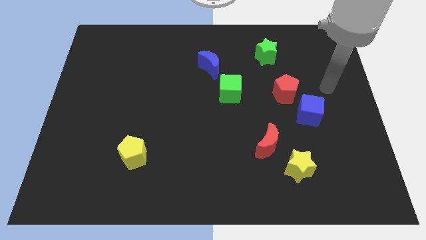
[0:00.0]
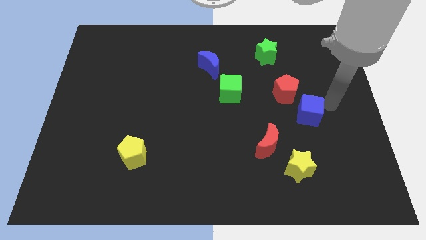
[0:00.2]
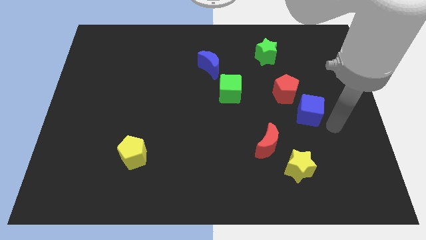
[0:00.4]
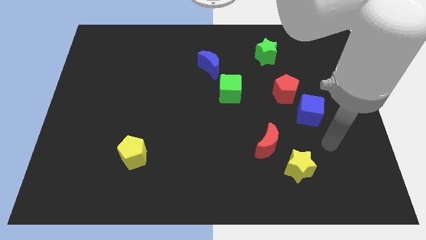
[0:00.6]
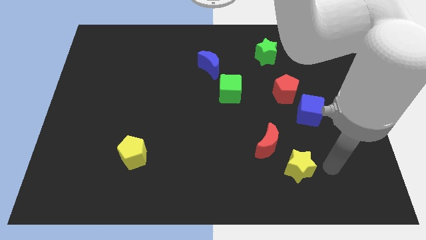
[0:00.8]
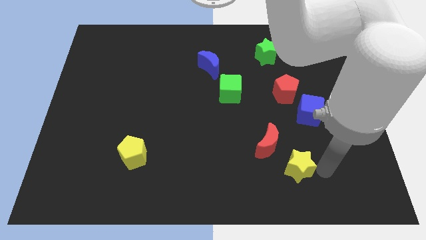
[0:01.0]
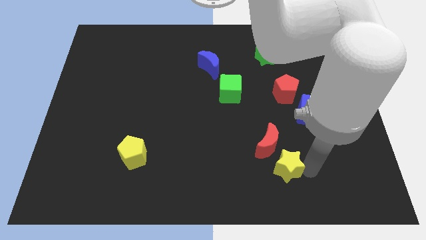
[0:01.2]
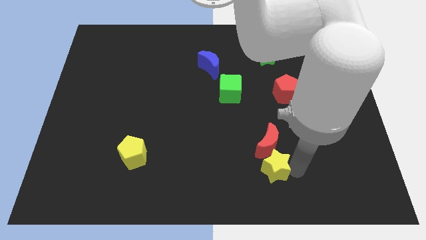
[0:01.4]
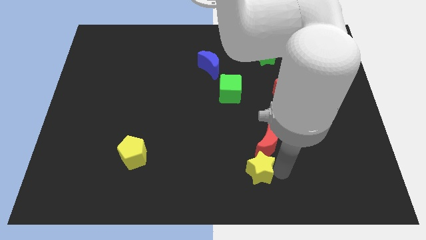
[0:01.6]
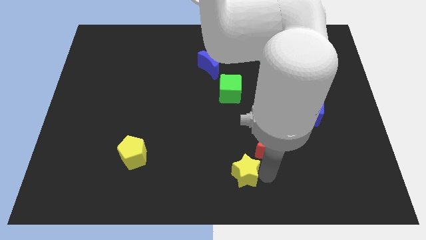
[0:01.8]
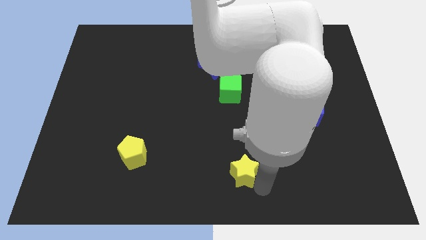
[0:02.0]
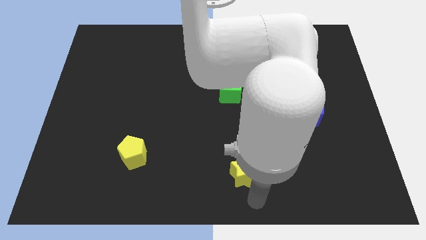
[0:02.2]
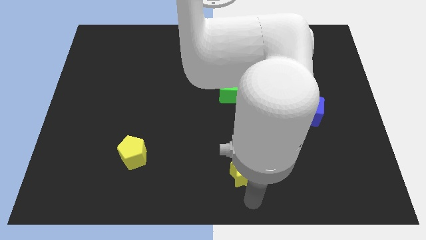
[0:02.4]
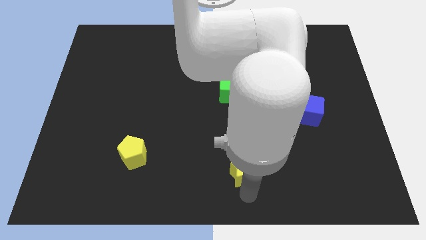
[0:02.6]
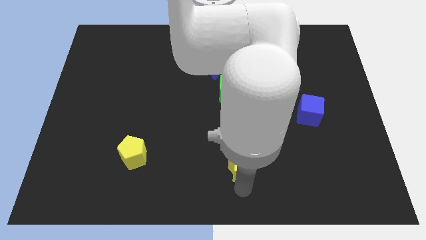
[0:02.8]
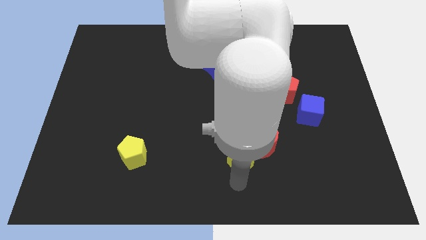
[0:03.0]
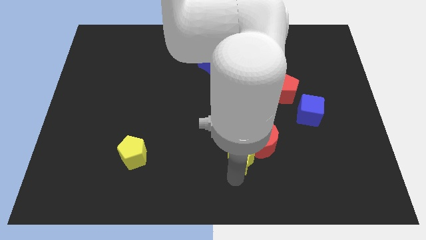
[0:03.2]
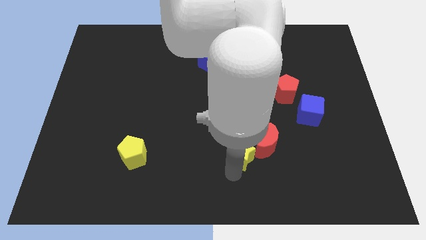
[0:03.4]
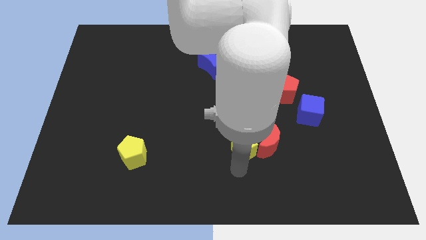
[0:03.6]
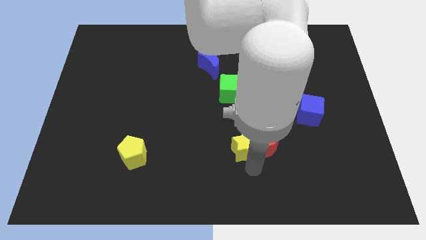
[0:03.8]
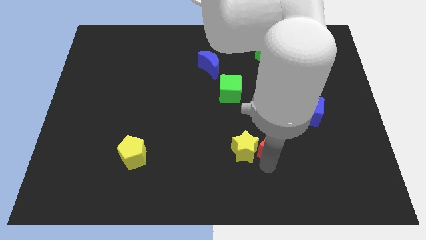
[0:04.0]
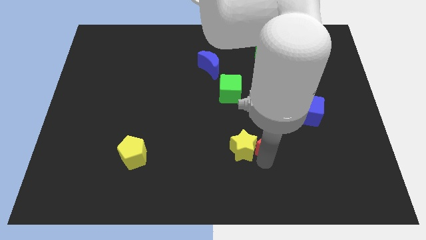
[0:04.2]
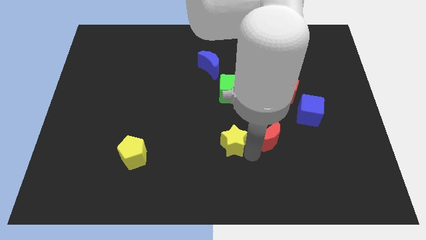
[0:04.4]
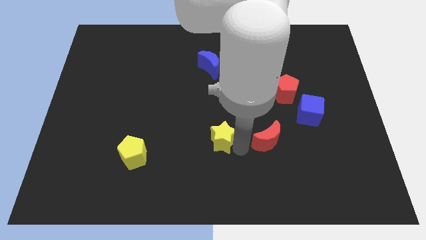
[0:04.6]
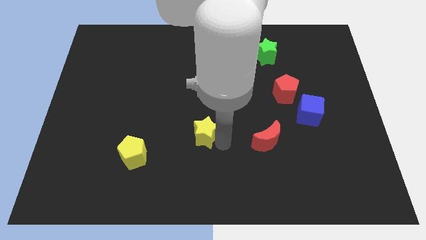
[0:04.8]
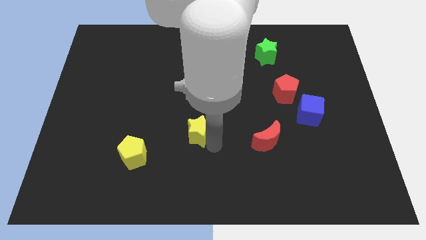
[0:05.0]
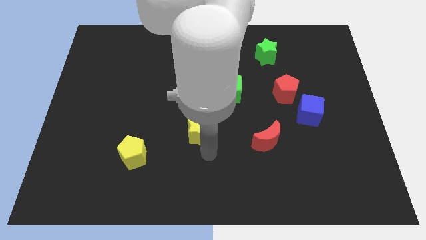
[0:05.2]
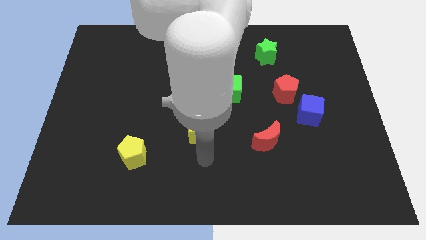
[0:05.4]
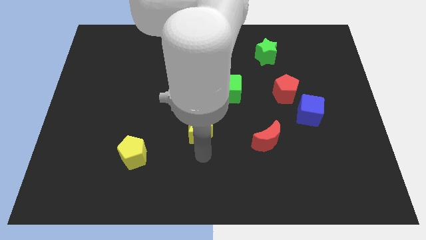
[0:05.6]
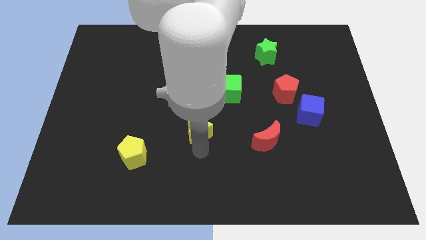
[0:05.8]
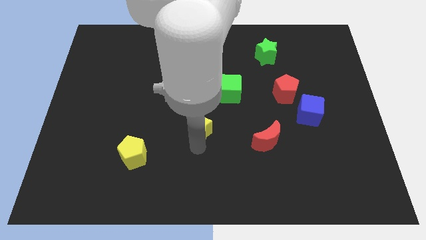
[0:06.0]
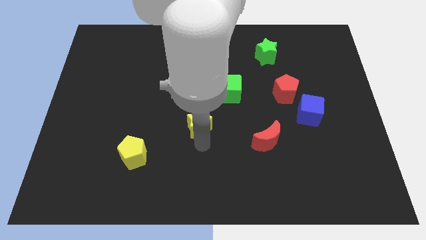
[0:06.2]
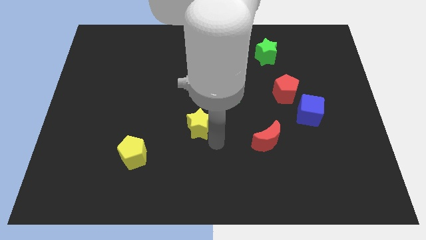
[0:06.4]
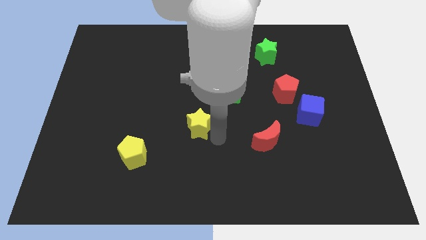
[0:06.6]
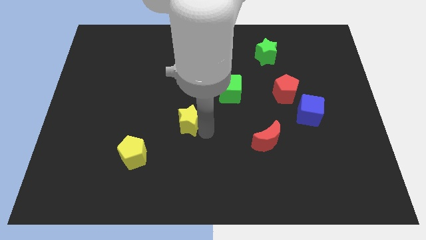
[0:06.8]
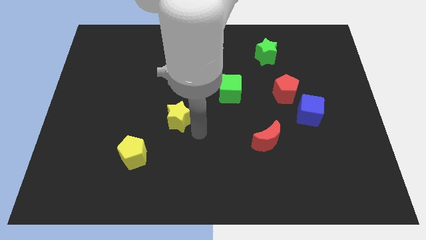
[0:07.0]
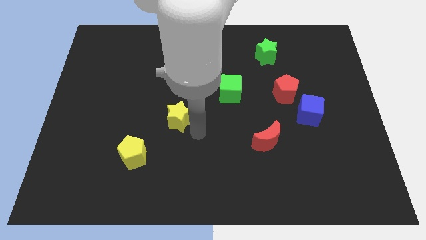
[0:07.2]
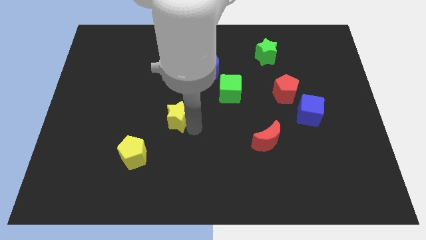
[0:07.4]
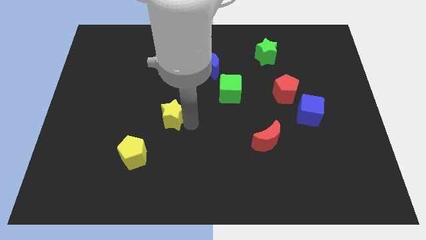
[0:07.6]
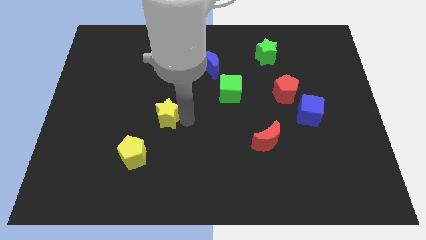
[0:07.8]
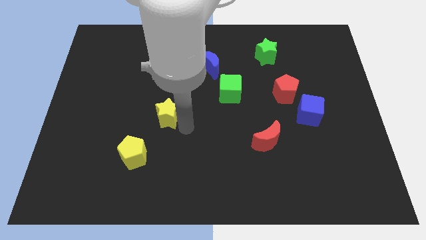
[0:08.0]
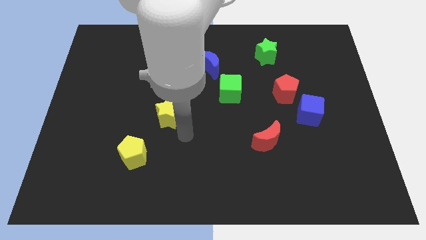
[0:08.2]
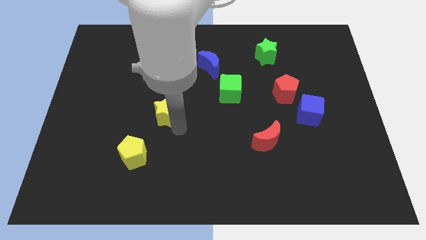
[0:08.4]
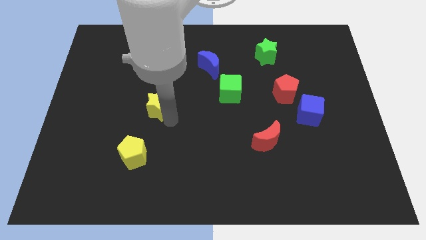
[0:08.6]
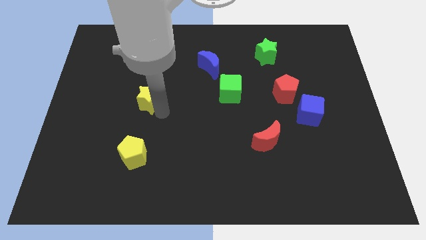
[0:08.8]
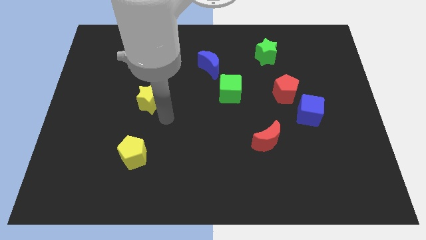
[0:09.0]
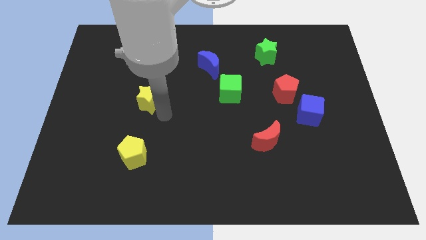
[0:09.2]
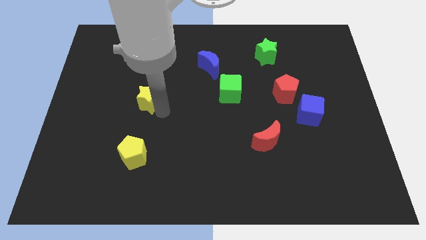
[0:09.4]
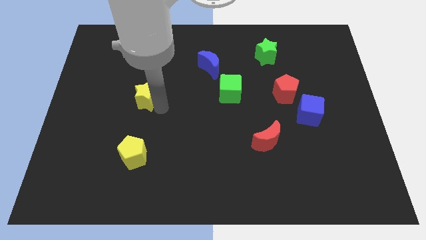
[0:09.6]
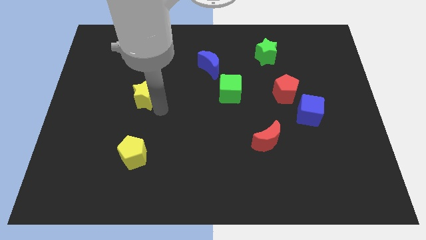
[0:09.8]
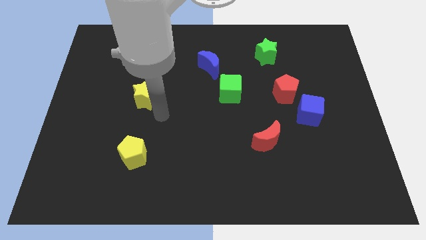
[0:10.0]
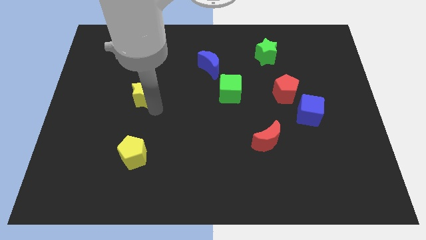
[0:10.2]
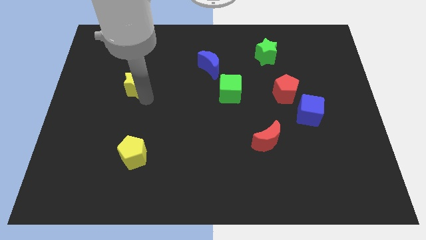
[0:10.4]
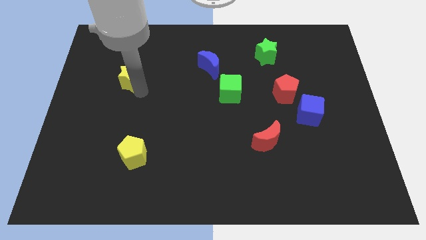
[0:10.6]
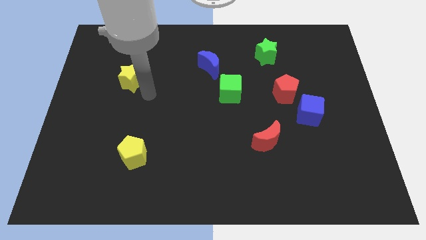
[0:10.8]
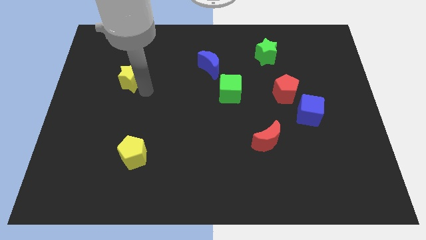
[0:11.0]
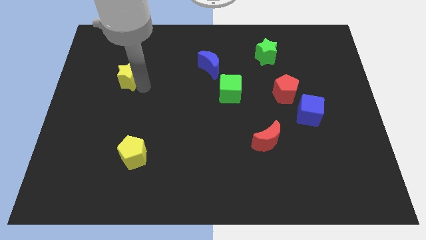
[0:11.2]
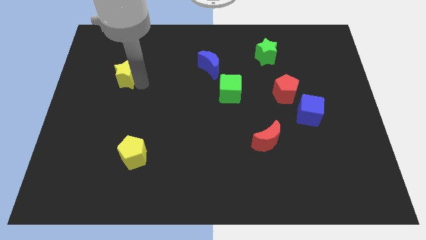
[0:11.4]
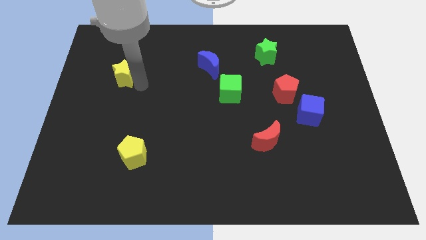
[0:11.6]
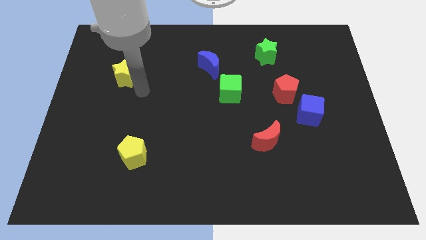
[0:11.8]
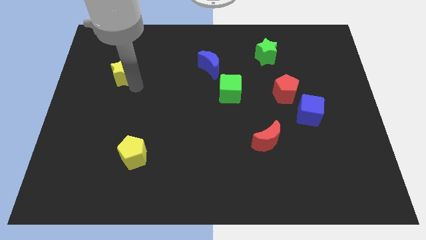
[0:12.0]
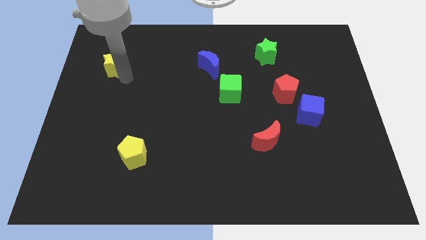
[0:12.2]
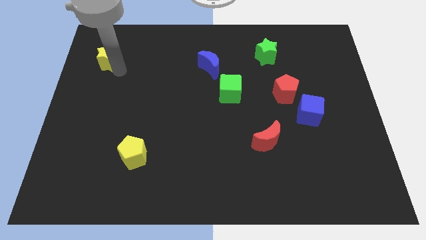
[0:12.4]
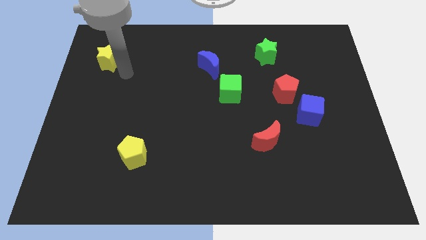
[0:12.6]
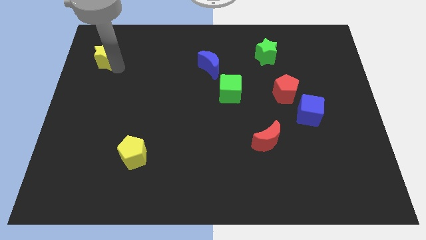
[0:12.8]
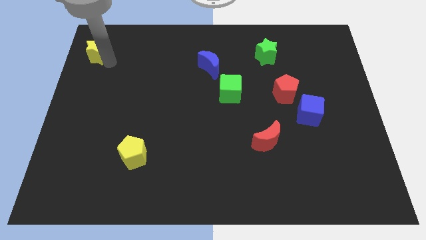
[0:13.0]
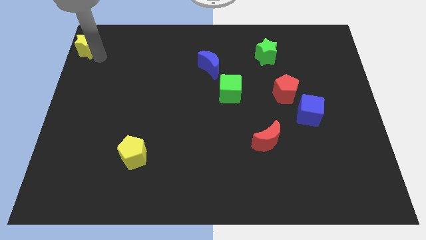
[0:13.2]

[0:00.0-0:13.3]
put the yellow star to the top left
